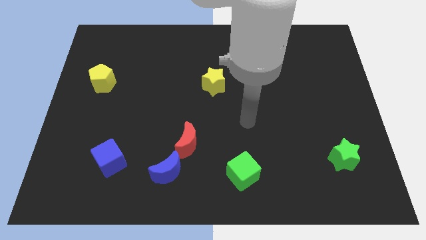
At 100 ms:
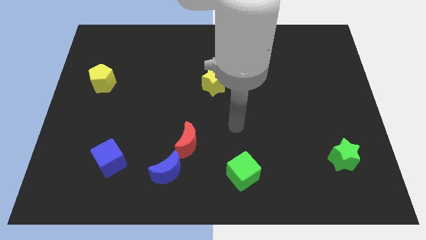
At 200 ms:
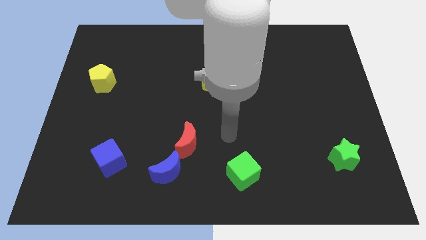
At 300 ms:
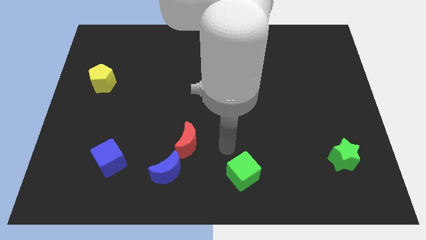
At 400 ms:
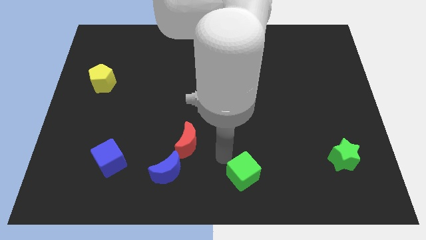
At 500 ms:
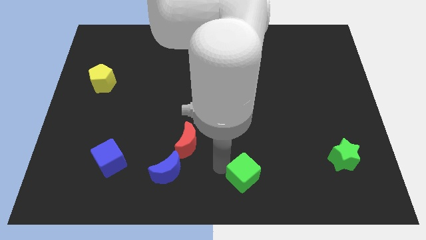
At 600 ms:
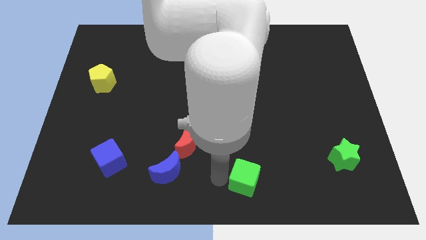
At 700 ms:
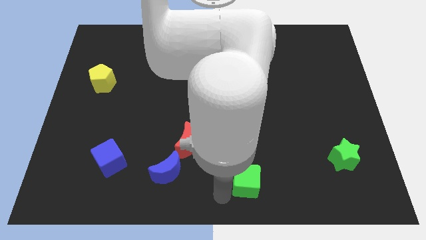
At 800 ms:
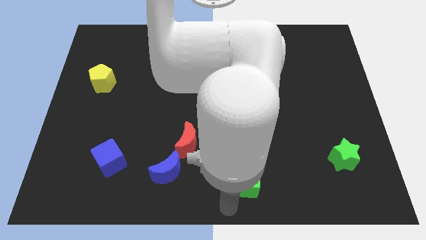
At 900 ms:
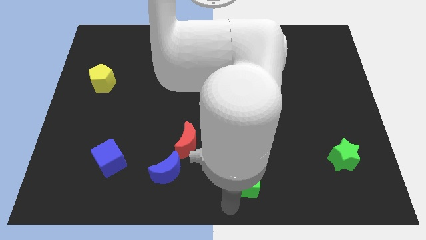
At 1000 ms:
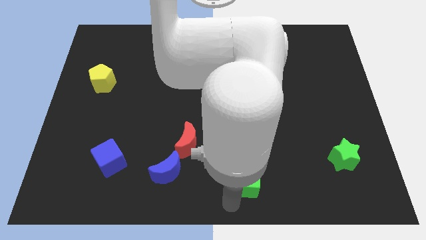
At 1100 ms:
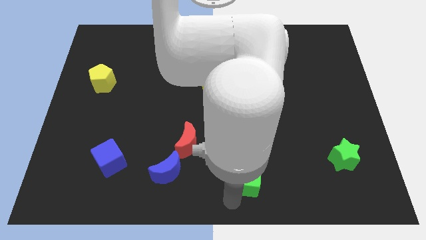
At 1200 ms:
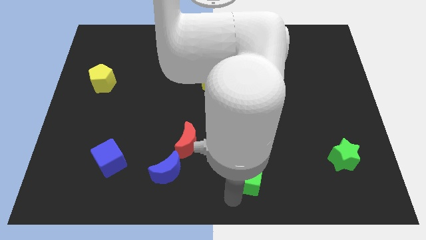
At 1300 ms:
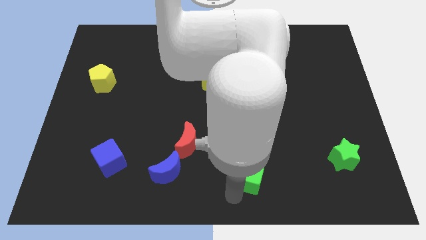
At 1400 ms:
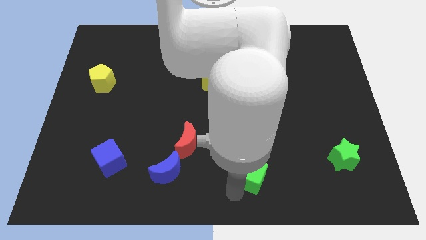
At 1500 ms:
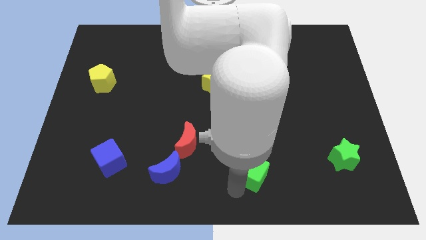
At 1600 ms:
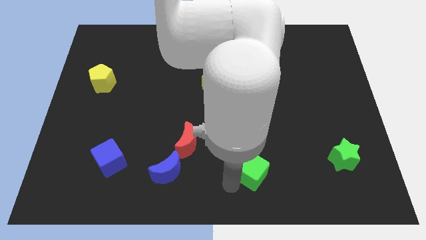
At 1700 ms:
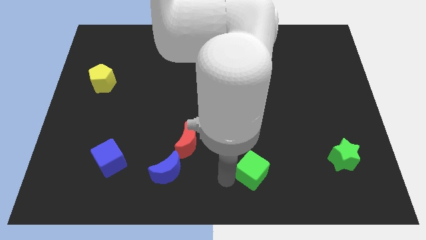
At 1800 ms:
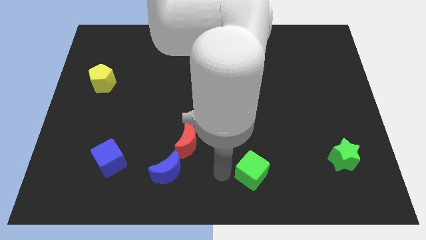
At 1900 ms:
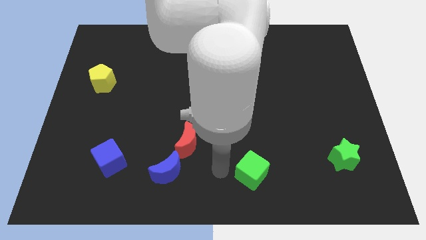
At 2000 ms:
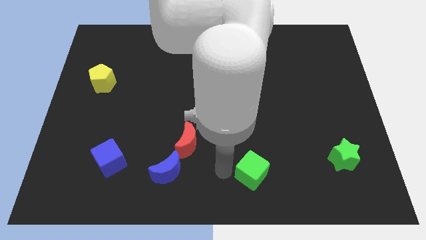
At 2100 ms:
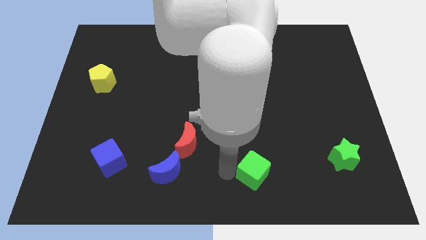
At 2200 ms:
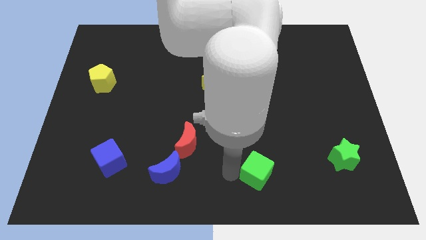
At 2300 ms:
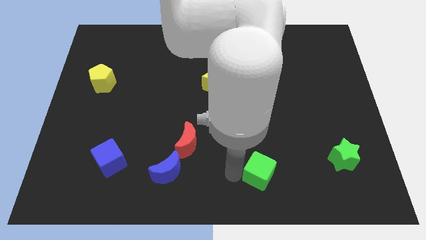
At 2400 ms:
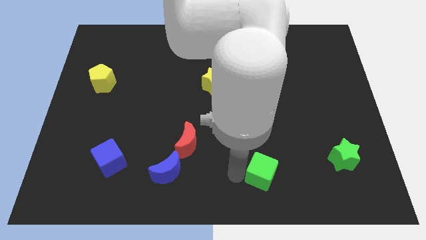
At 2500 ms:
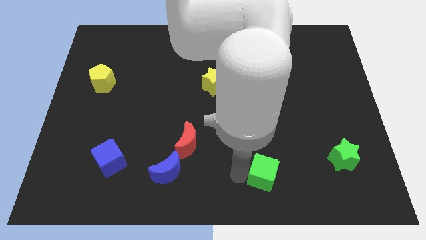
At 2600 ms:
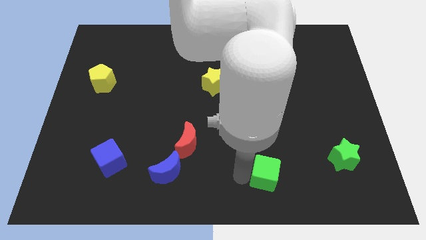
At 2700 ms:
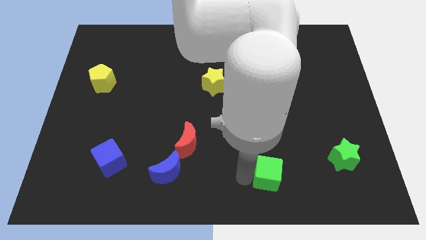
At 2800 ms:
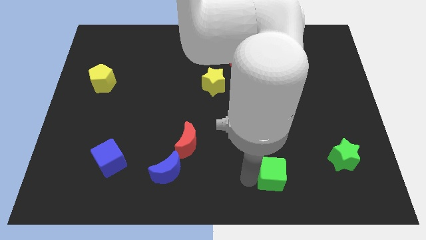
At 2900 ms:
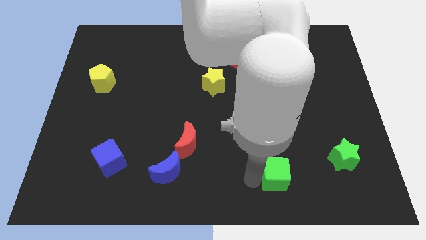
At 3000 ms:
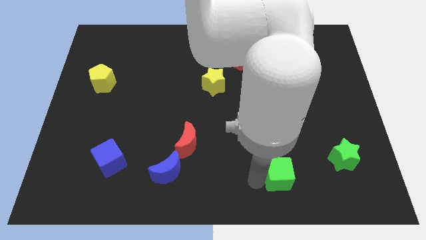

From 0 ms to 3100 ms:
push the green cube slightly to the right

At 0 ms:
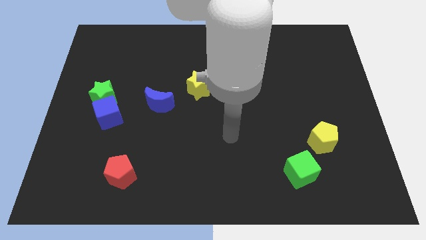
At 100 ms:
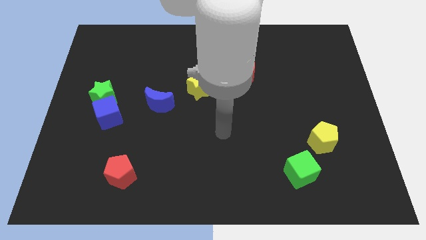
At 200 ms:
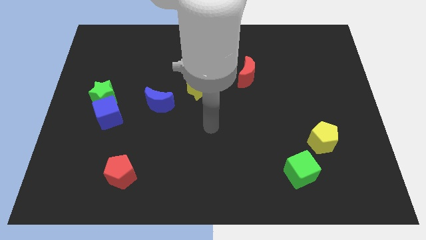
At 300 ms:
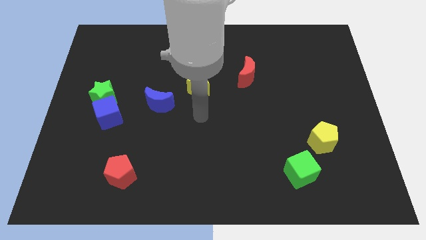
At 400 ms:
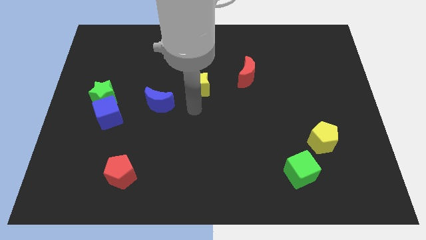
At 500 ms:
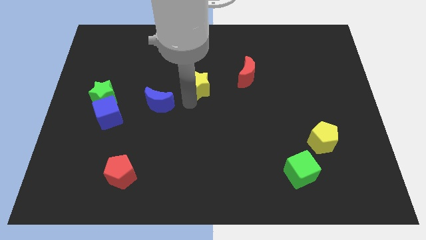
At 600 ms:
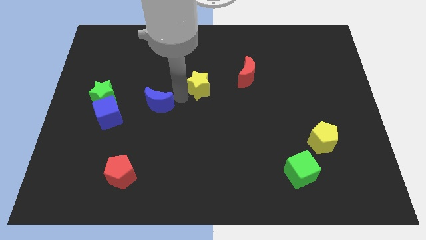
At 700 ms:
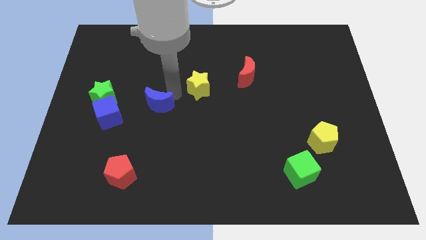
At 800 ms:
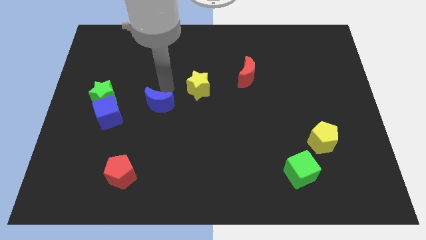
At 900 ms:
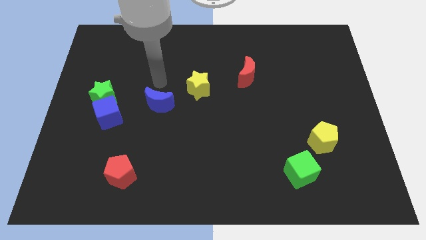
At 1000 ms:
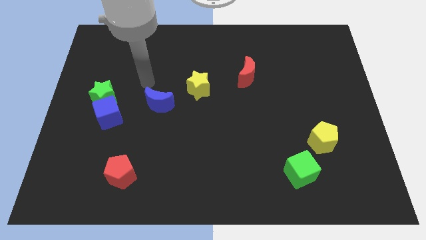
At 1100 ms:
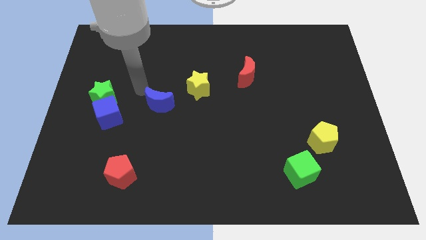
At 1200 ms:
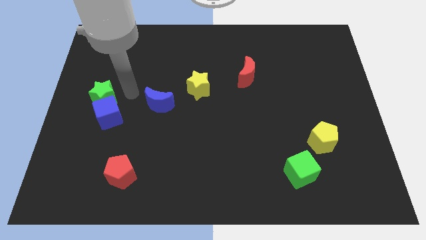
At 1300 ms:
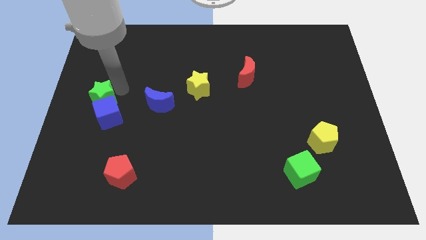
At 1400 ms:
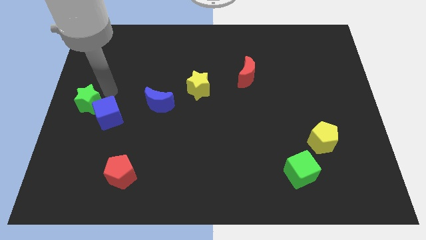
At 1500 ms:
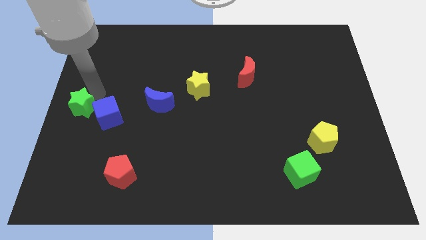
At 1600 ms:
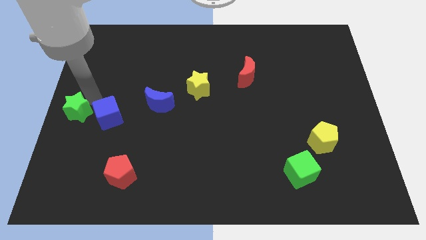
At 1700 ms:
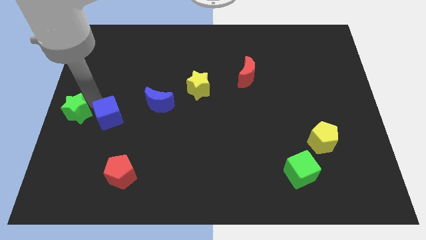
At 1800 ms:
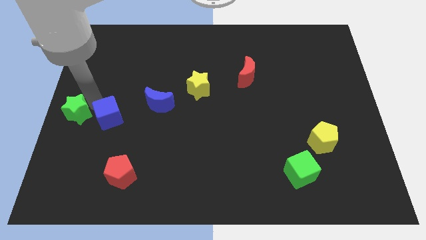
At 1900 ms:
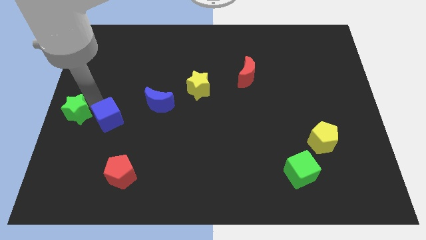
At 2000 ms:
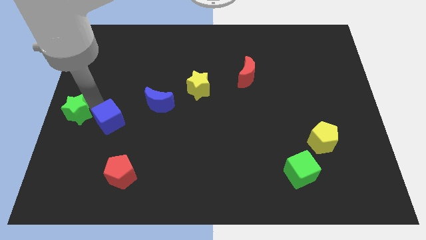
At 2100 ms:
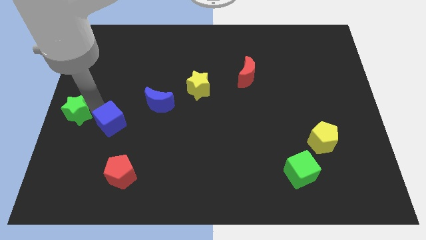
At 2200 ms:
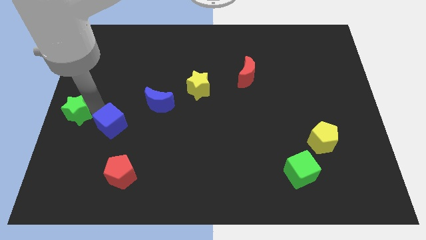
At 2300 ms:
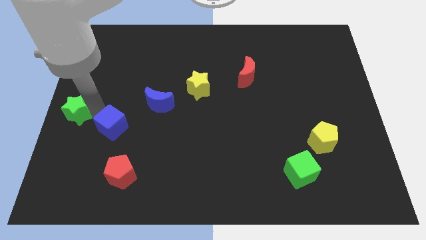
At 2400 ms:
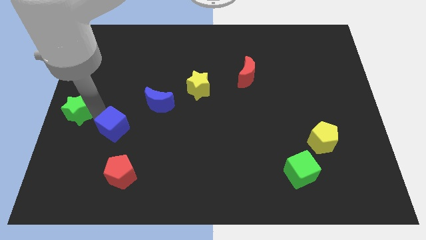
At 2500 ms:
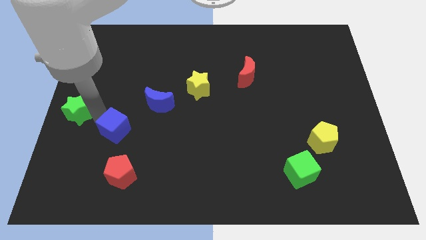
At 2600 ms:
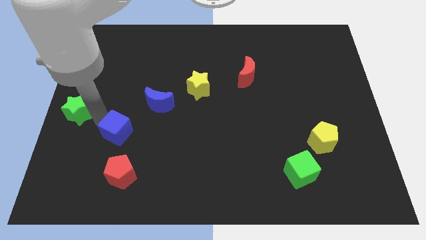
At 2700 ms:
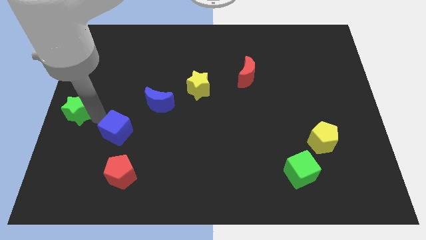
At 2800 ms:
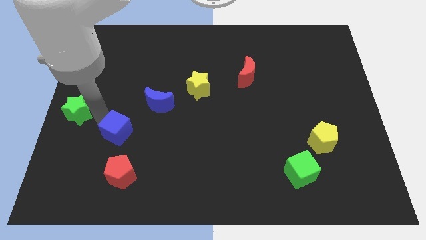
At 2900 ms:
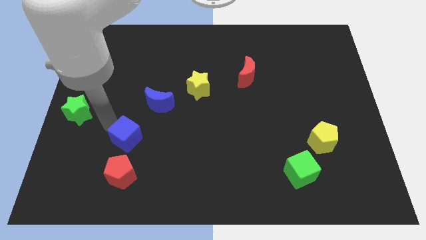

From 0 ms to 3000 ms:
slightly move the blue cube downwards and right

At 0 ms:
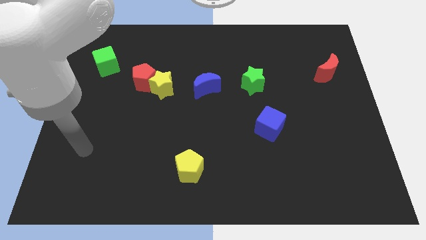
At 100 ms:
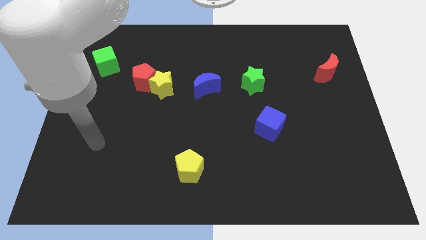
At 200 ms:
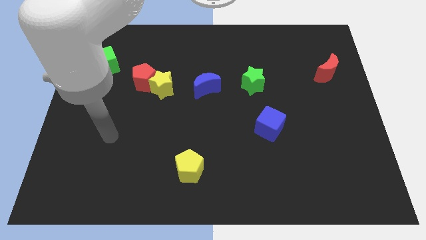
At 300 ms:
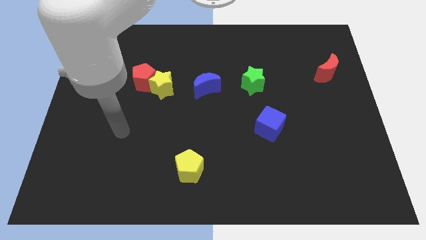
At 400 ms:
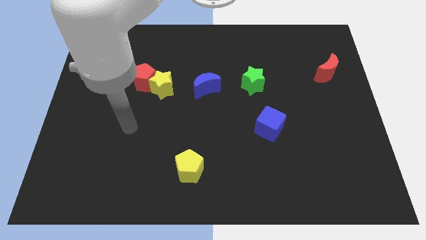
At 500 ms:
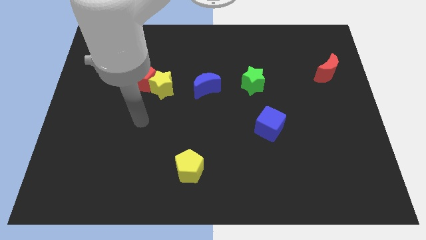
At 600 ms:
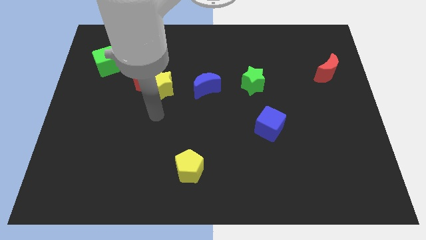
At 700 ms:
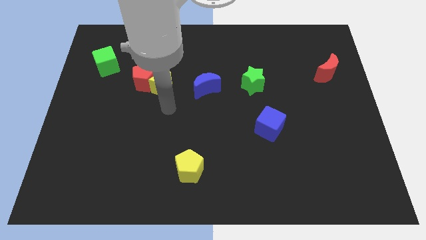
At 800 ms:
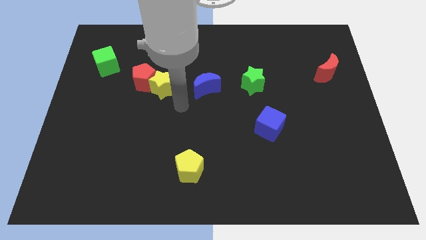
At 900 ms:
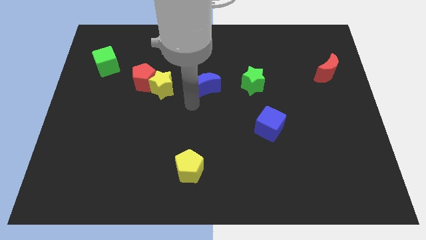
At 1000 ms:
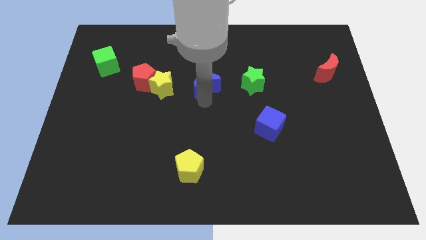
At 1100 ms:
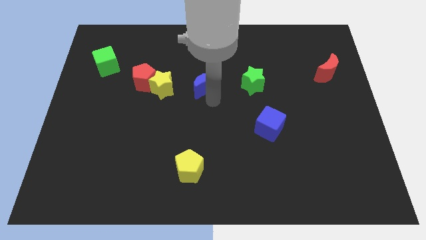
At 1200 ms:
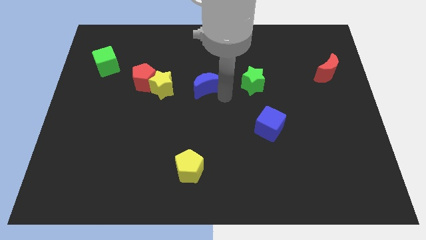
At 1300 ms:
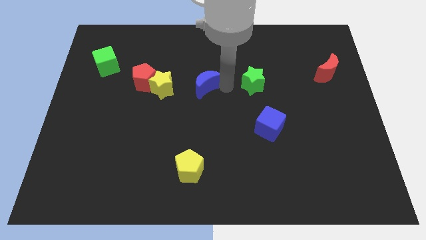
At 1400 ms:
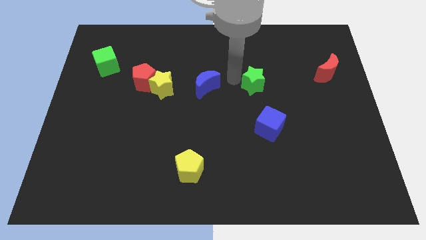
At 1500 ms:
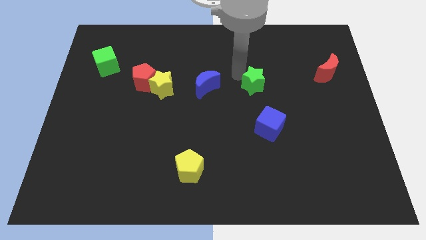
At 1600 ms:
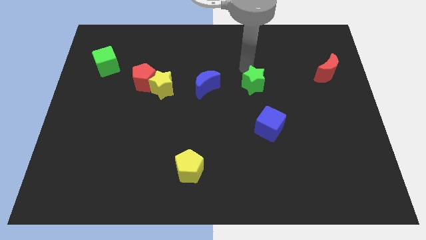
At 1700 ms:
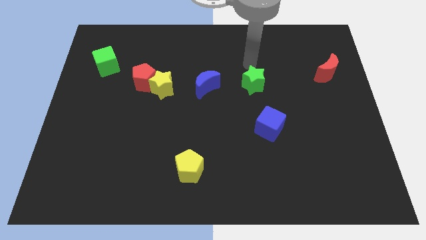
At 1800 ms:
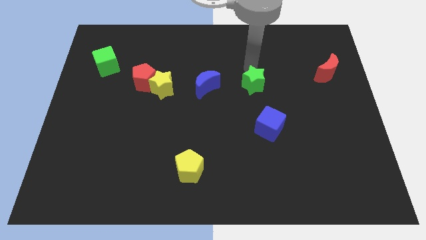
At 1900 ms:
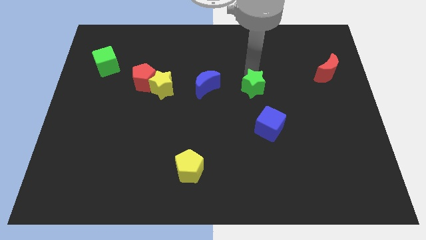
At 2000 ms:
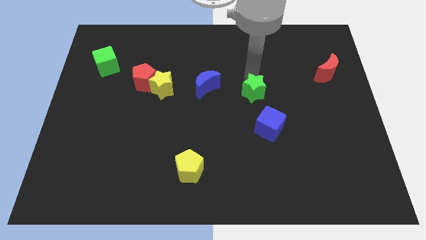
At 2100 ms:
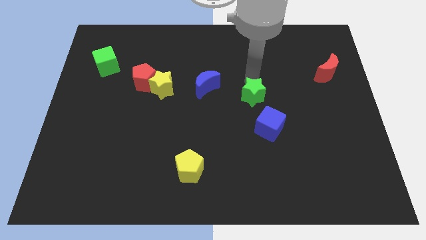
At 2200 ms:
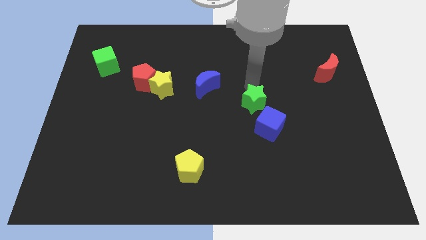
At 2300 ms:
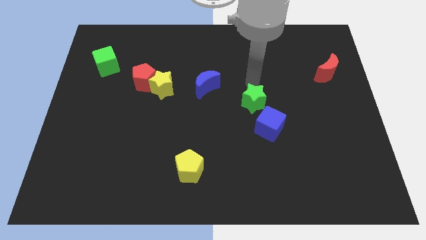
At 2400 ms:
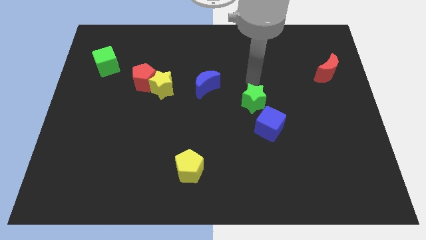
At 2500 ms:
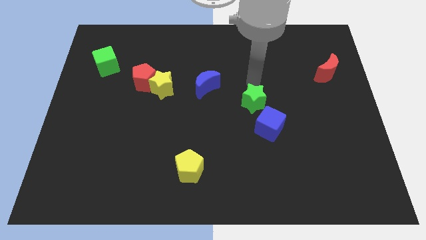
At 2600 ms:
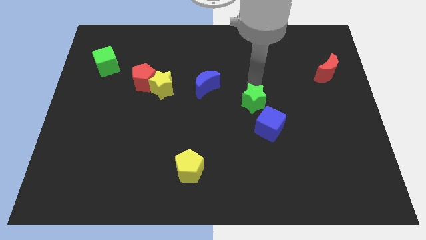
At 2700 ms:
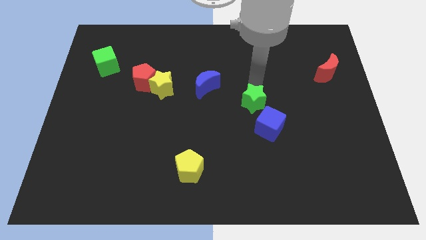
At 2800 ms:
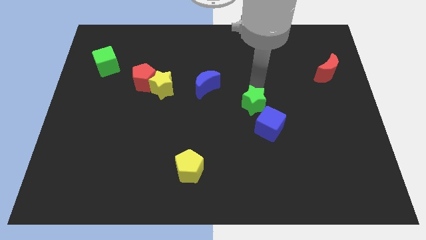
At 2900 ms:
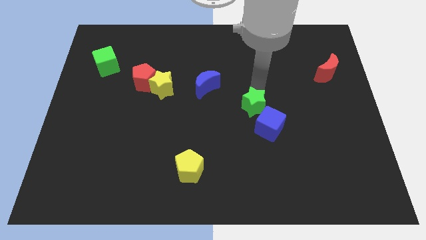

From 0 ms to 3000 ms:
push the green star slightly downwards
